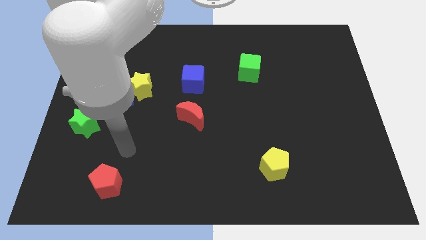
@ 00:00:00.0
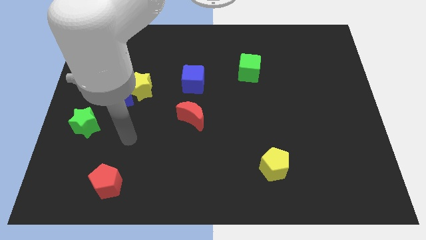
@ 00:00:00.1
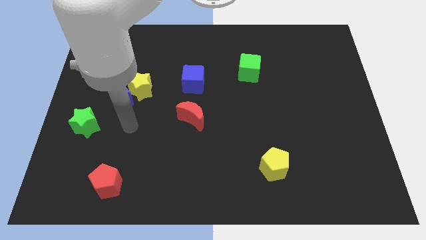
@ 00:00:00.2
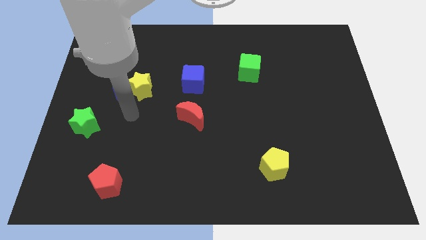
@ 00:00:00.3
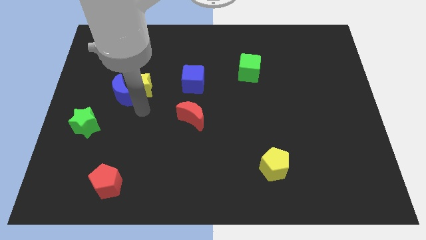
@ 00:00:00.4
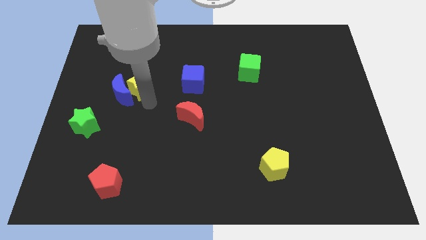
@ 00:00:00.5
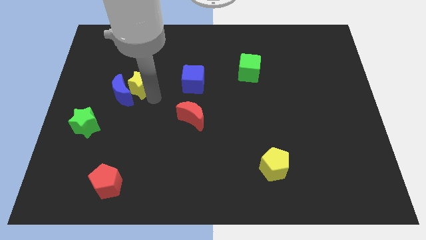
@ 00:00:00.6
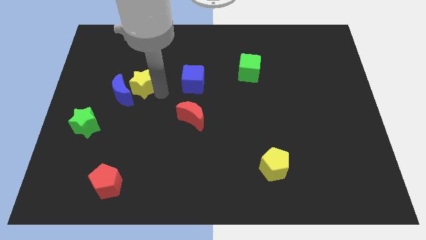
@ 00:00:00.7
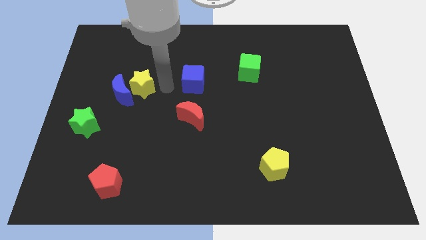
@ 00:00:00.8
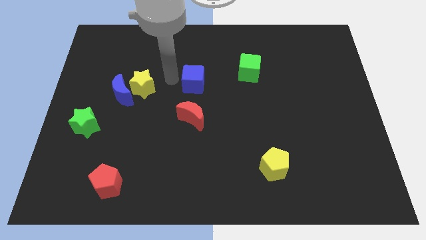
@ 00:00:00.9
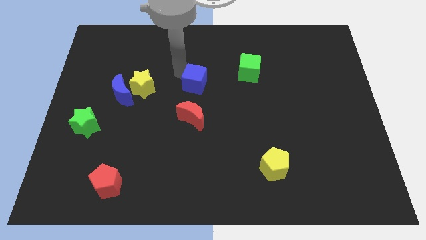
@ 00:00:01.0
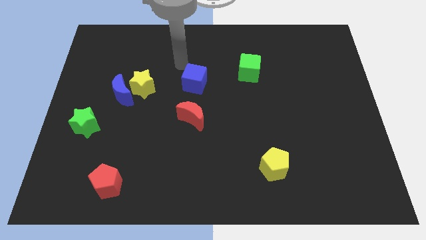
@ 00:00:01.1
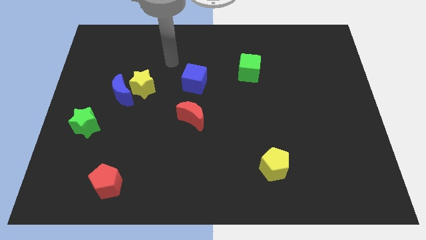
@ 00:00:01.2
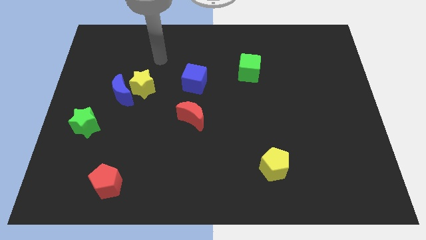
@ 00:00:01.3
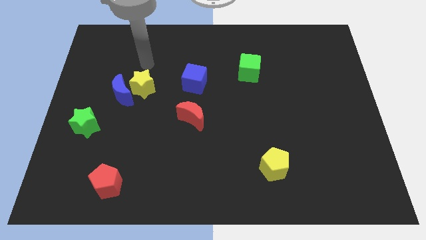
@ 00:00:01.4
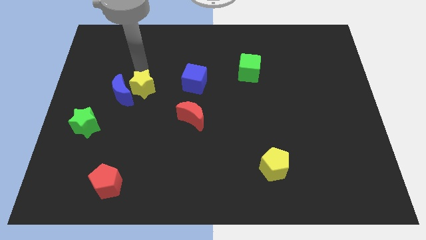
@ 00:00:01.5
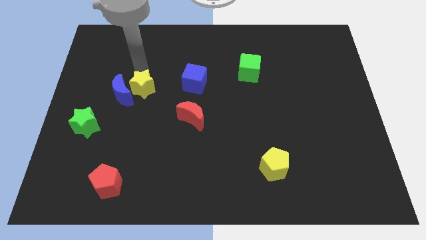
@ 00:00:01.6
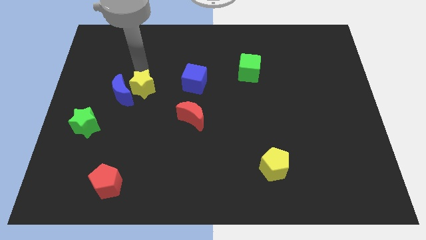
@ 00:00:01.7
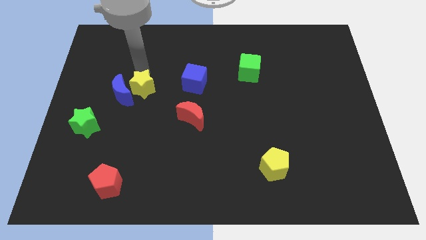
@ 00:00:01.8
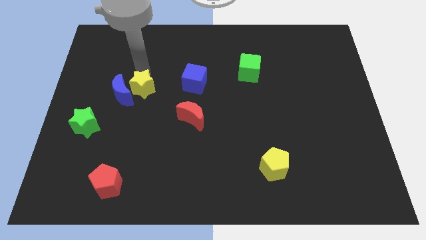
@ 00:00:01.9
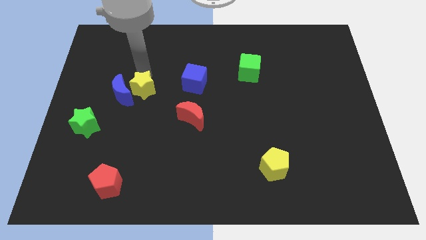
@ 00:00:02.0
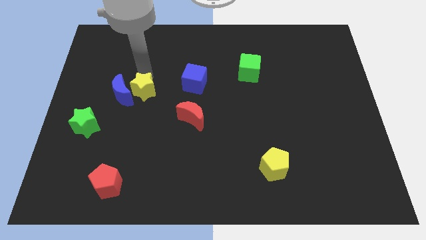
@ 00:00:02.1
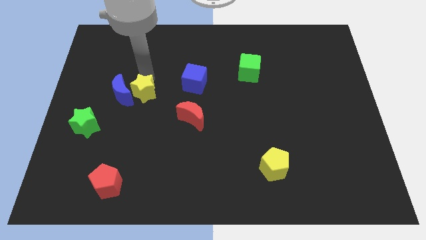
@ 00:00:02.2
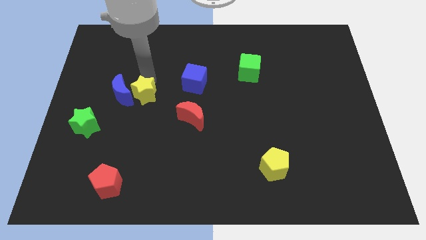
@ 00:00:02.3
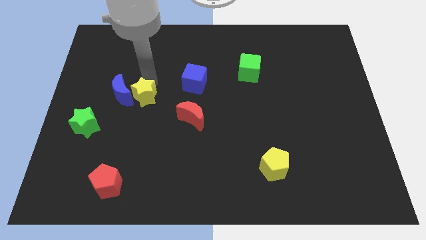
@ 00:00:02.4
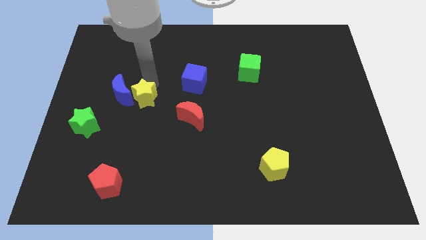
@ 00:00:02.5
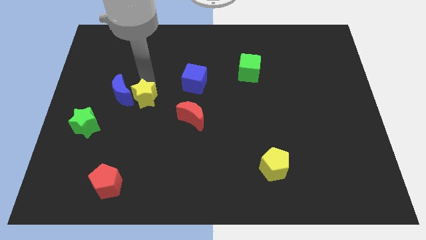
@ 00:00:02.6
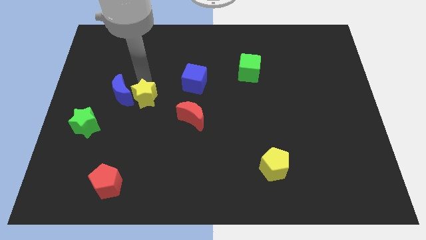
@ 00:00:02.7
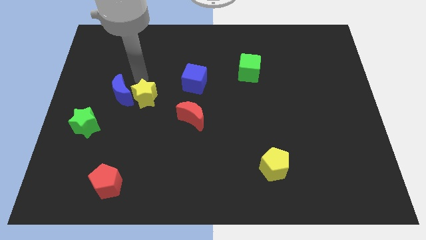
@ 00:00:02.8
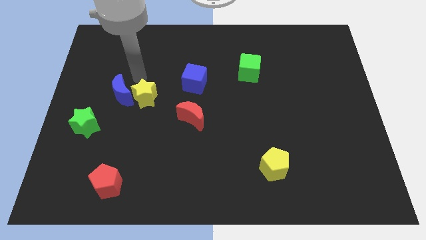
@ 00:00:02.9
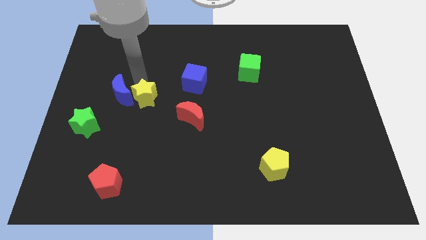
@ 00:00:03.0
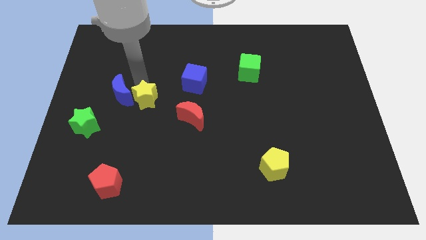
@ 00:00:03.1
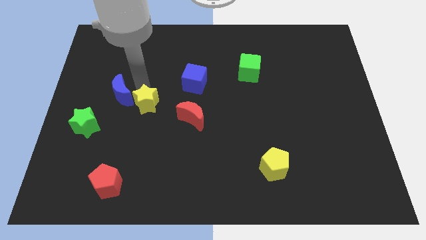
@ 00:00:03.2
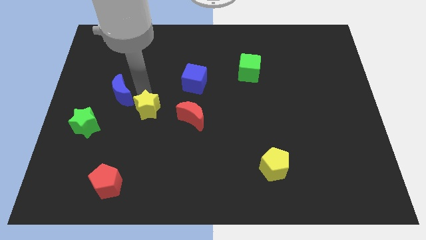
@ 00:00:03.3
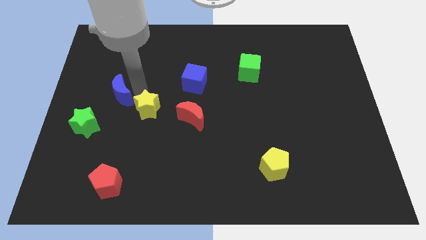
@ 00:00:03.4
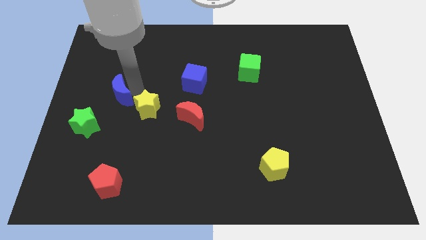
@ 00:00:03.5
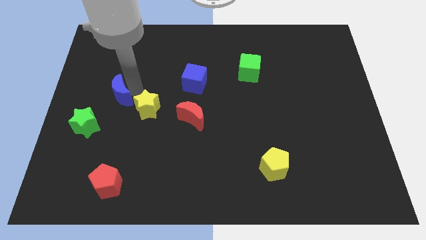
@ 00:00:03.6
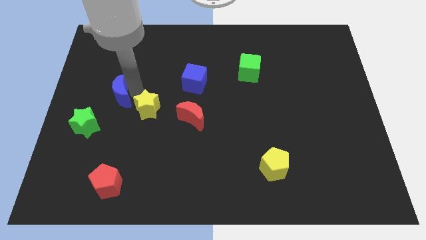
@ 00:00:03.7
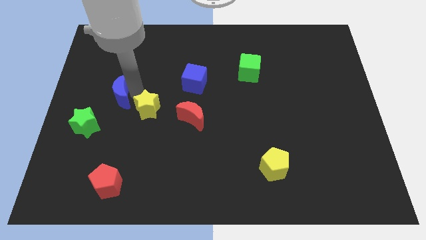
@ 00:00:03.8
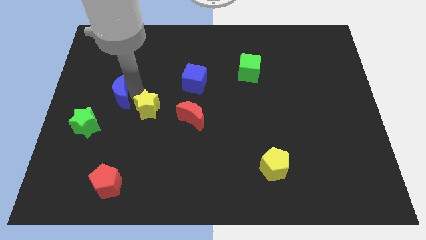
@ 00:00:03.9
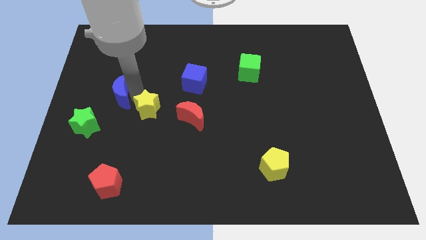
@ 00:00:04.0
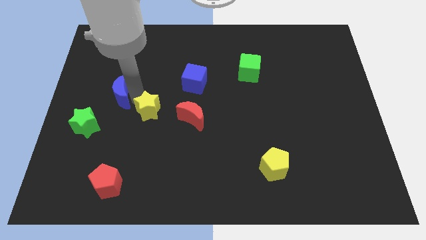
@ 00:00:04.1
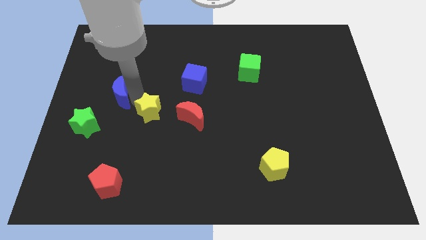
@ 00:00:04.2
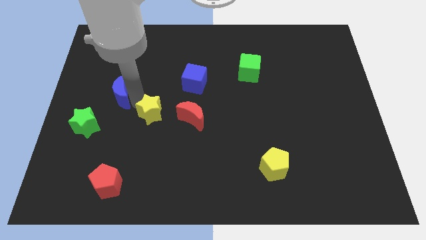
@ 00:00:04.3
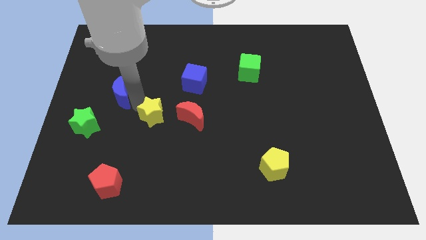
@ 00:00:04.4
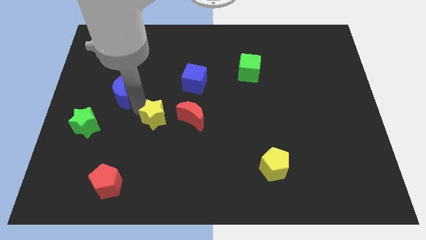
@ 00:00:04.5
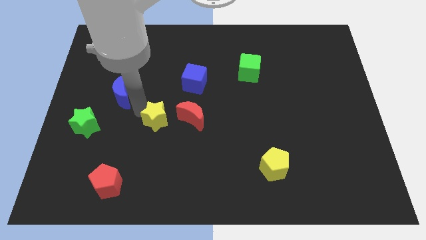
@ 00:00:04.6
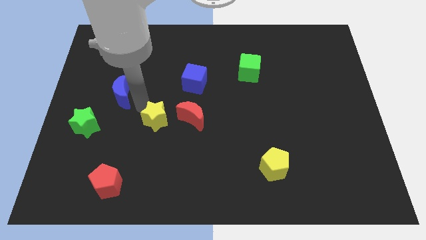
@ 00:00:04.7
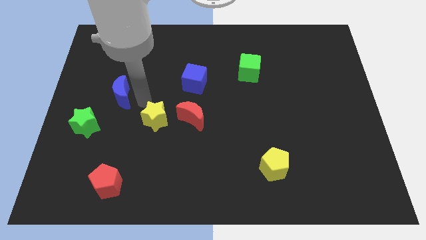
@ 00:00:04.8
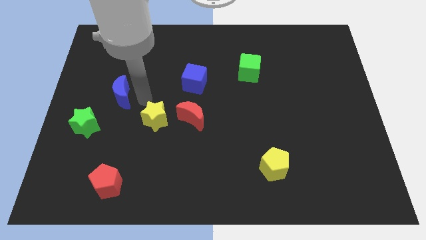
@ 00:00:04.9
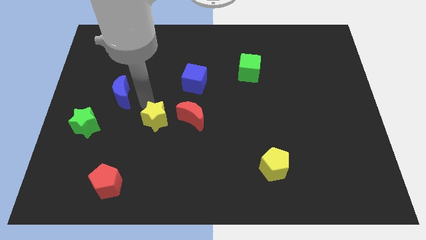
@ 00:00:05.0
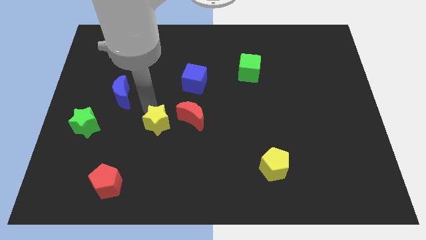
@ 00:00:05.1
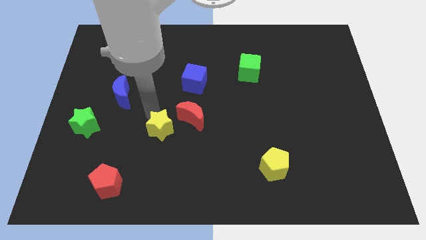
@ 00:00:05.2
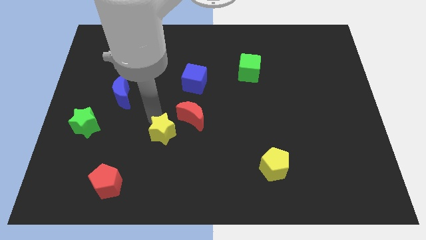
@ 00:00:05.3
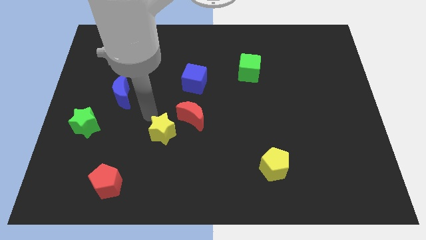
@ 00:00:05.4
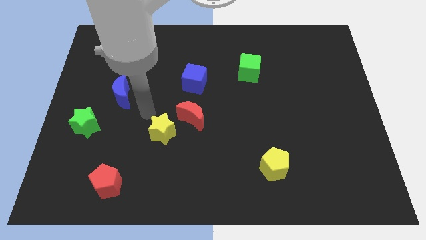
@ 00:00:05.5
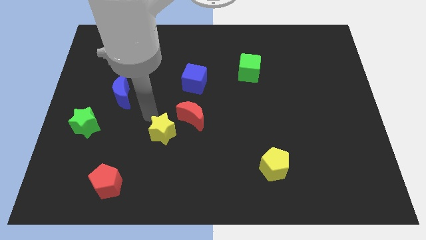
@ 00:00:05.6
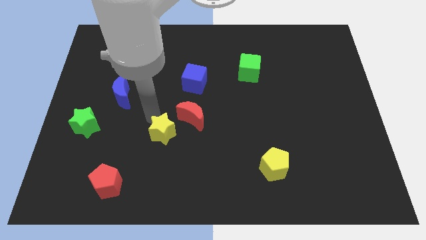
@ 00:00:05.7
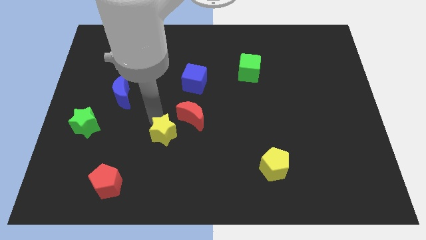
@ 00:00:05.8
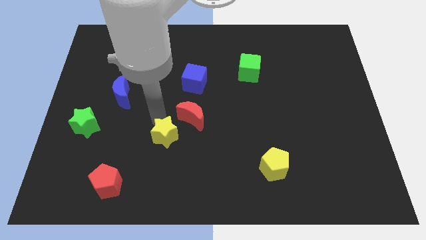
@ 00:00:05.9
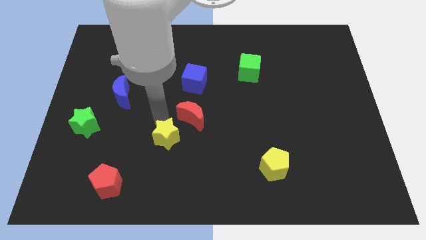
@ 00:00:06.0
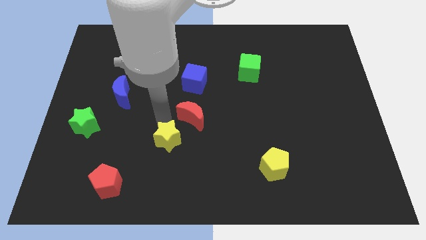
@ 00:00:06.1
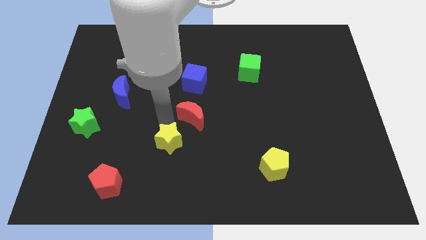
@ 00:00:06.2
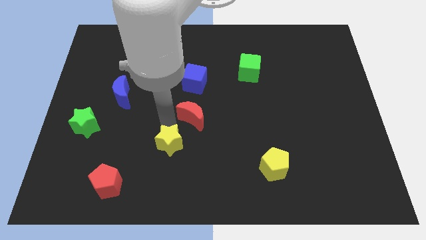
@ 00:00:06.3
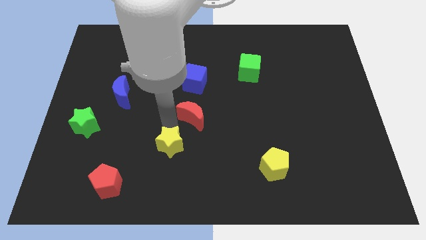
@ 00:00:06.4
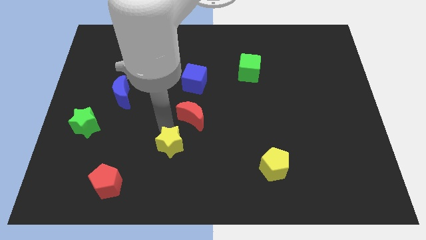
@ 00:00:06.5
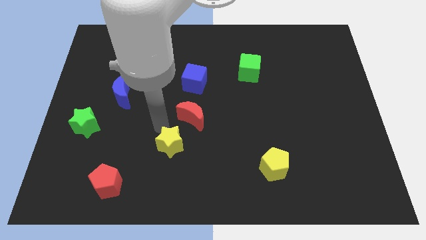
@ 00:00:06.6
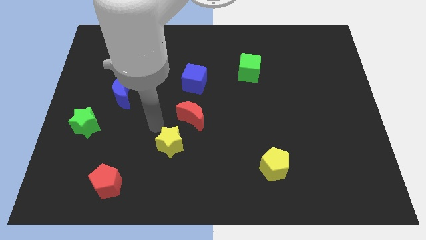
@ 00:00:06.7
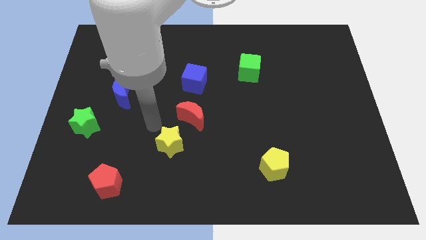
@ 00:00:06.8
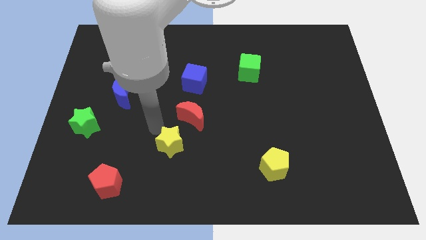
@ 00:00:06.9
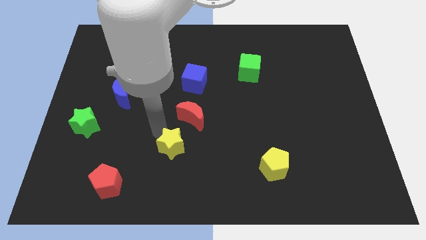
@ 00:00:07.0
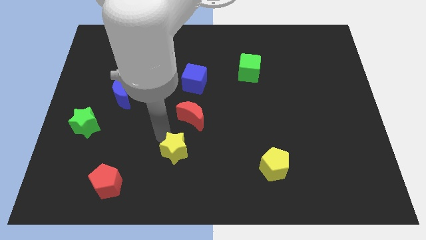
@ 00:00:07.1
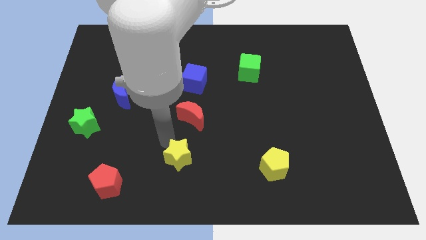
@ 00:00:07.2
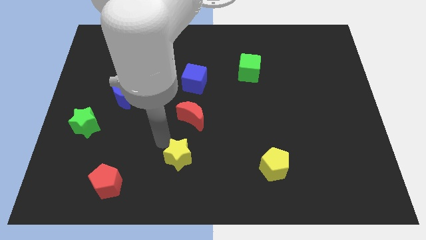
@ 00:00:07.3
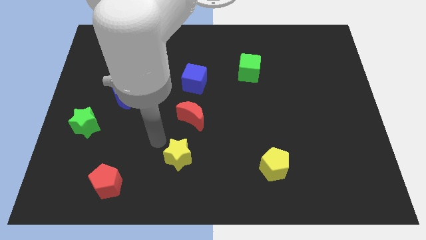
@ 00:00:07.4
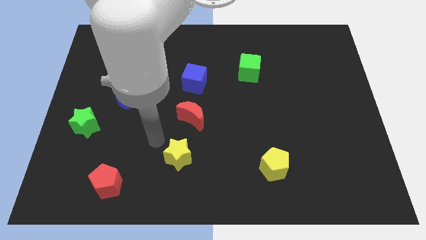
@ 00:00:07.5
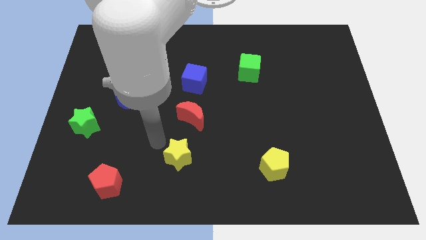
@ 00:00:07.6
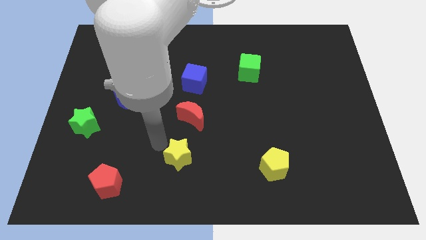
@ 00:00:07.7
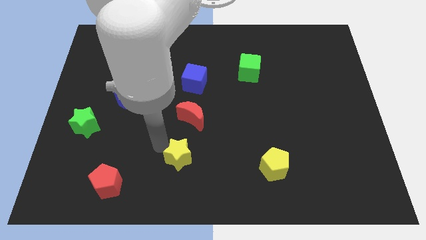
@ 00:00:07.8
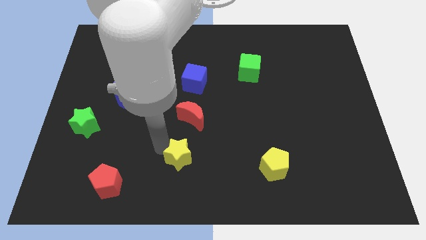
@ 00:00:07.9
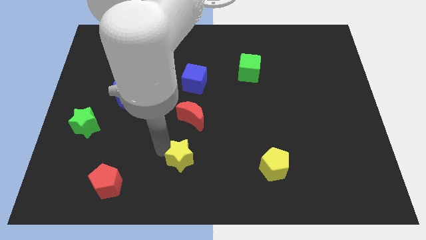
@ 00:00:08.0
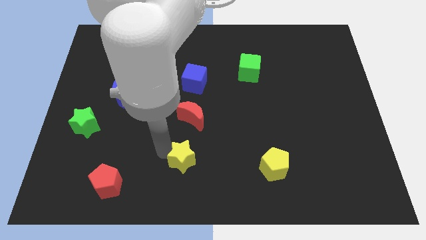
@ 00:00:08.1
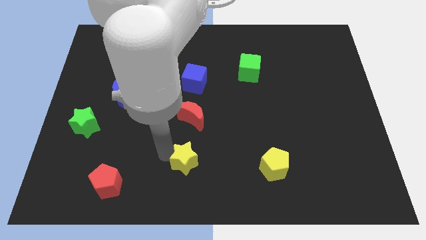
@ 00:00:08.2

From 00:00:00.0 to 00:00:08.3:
push the yellow star to the bottom
